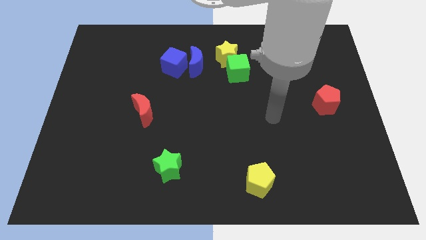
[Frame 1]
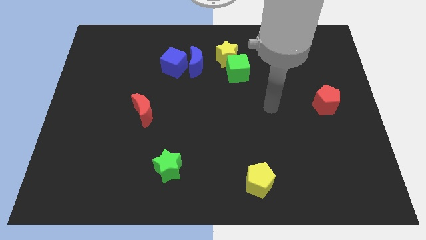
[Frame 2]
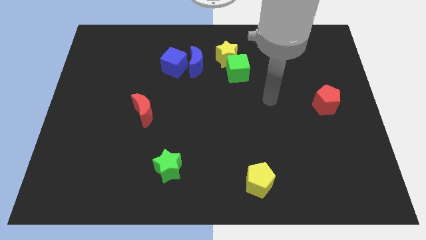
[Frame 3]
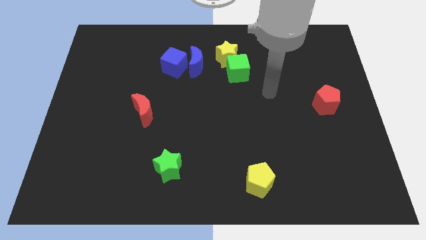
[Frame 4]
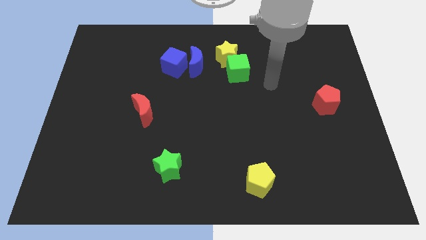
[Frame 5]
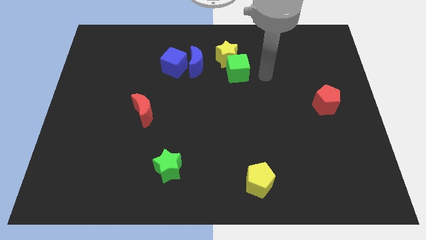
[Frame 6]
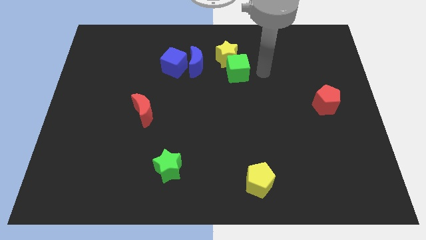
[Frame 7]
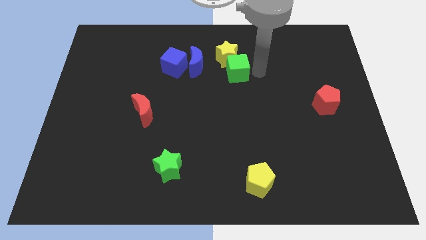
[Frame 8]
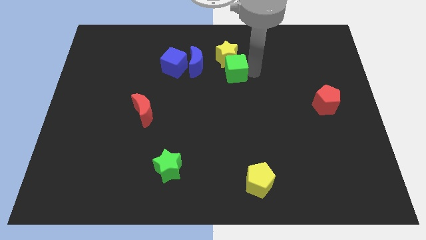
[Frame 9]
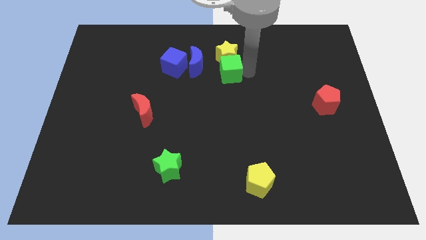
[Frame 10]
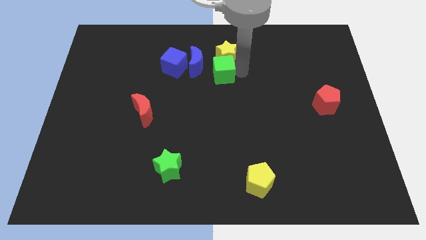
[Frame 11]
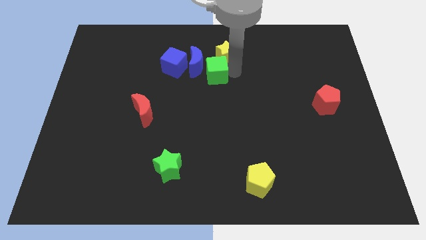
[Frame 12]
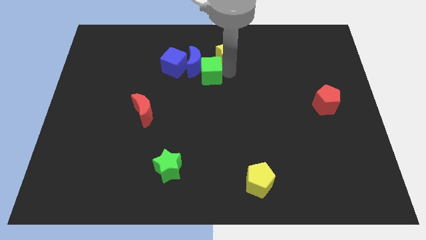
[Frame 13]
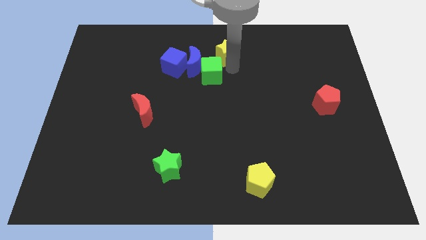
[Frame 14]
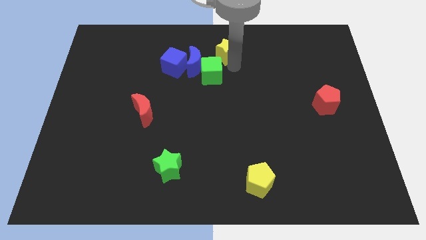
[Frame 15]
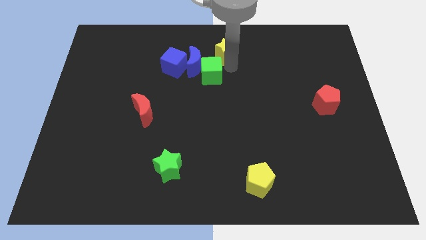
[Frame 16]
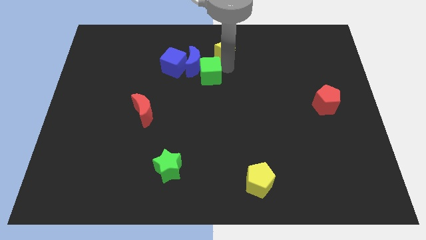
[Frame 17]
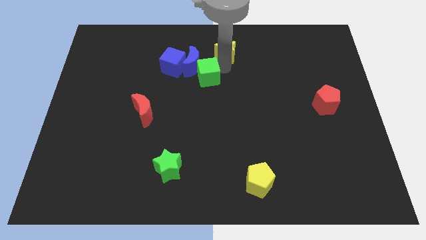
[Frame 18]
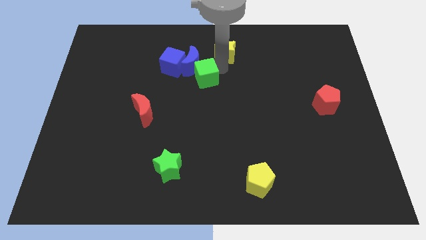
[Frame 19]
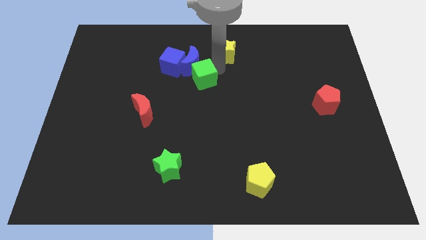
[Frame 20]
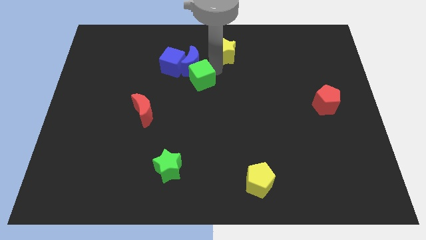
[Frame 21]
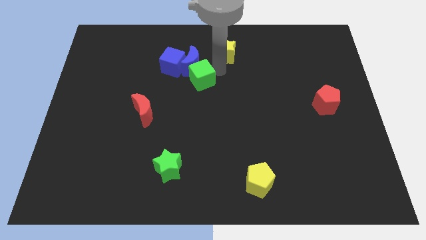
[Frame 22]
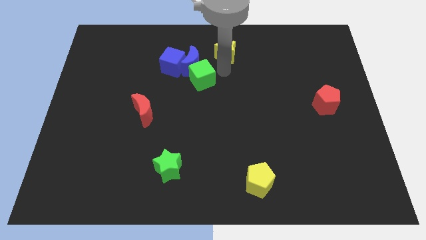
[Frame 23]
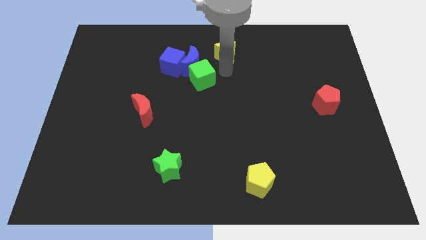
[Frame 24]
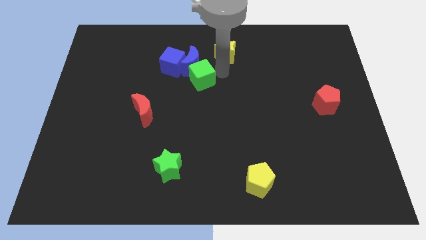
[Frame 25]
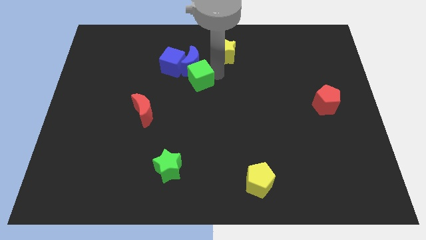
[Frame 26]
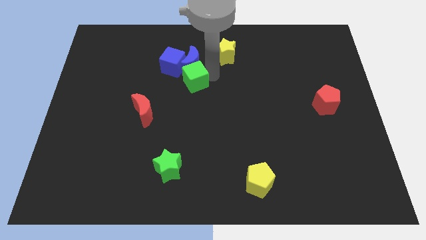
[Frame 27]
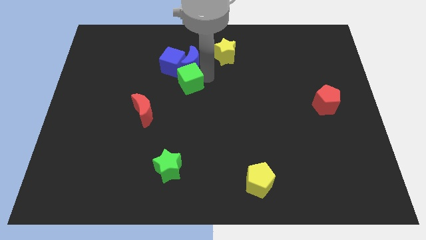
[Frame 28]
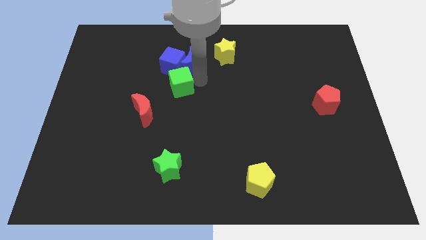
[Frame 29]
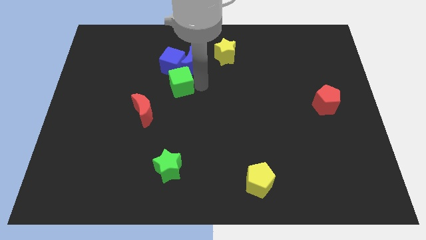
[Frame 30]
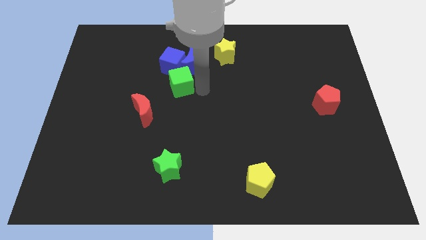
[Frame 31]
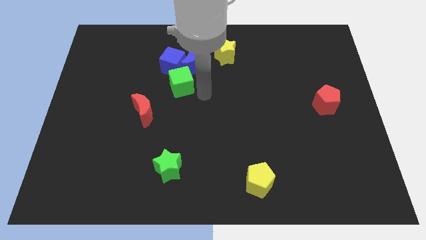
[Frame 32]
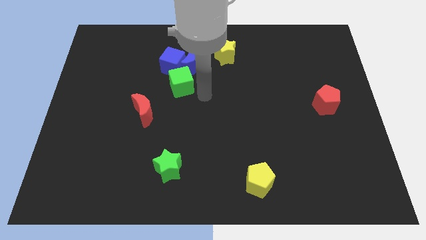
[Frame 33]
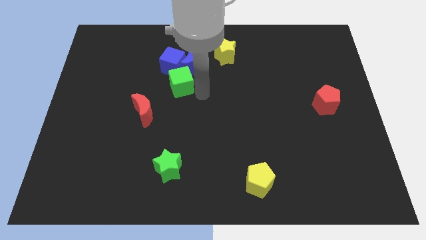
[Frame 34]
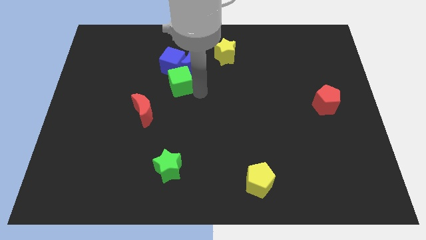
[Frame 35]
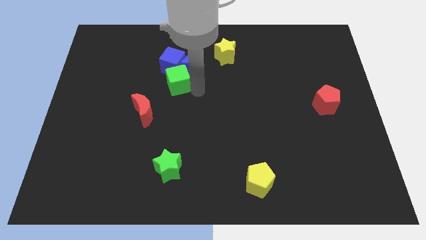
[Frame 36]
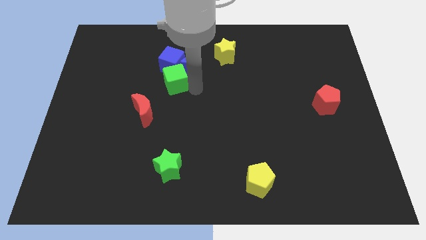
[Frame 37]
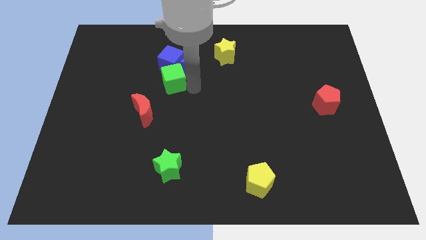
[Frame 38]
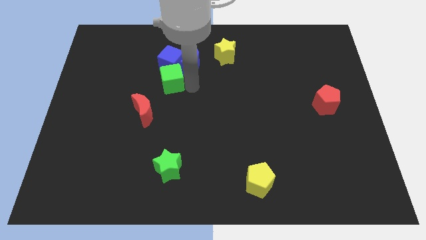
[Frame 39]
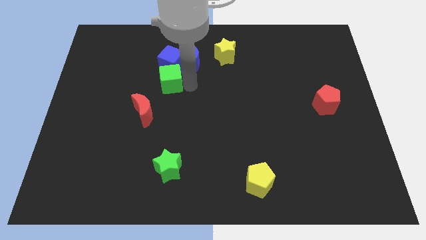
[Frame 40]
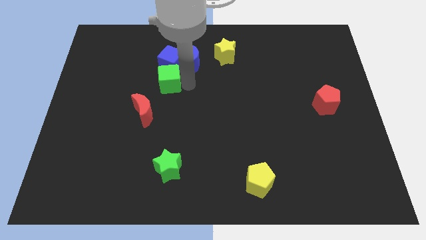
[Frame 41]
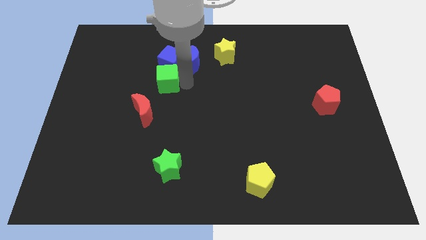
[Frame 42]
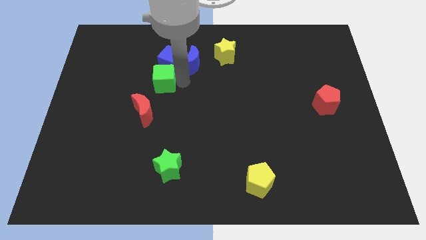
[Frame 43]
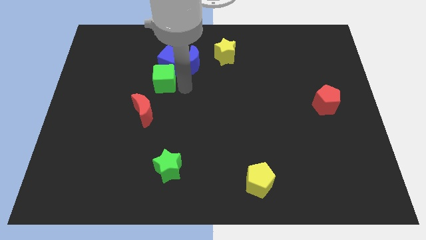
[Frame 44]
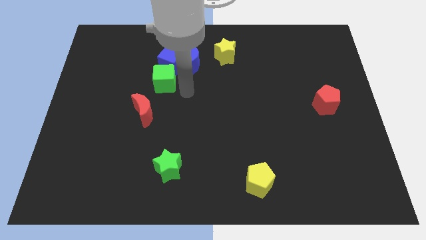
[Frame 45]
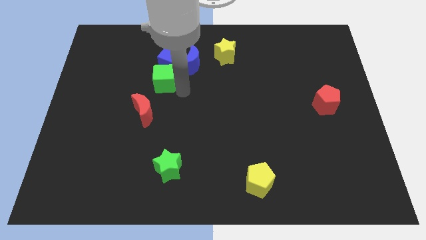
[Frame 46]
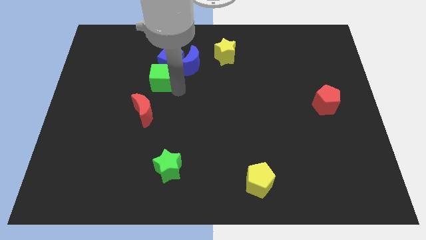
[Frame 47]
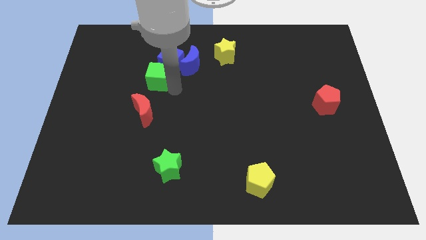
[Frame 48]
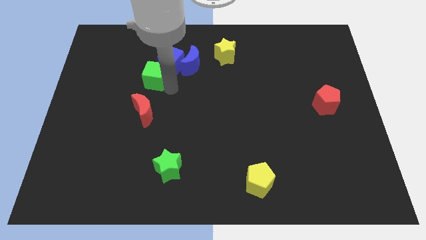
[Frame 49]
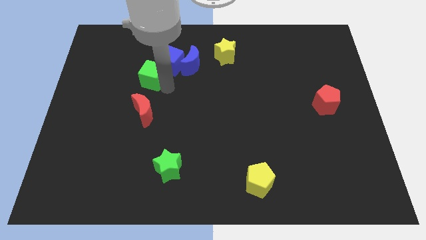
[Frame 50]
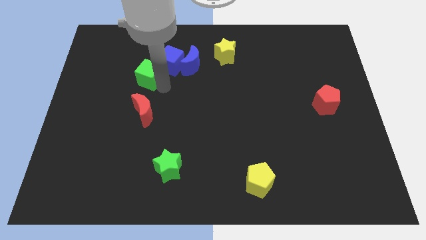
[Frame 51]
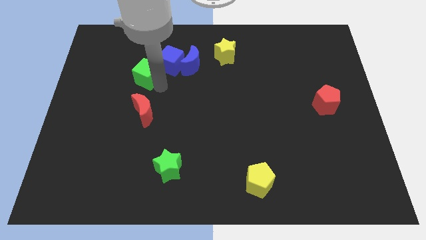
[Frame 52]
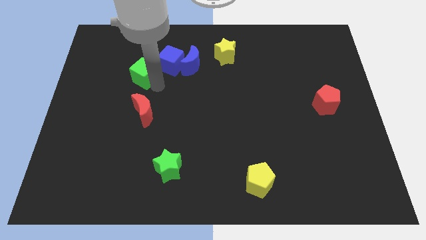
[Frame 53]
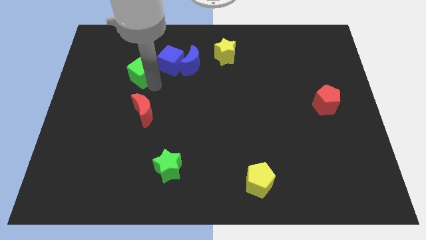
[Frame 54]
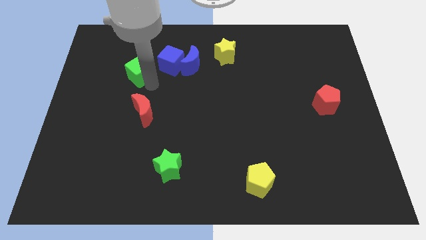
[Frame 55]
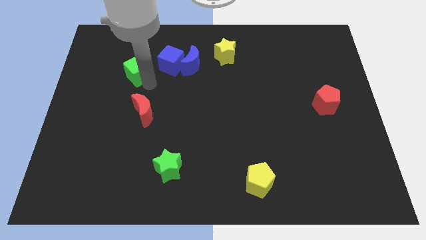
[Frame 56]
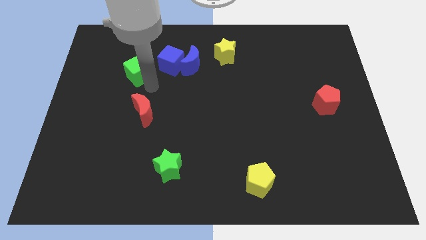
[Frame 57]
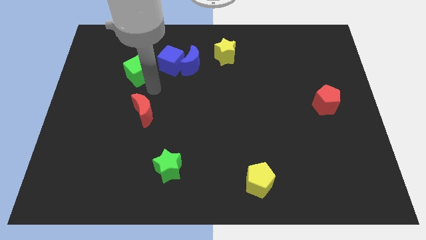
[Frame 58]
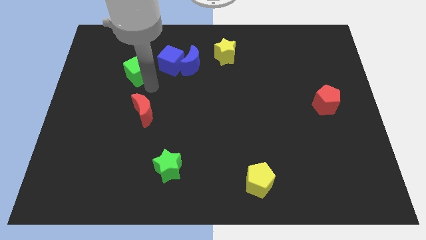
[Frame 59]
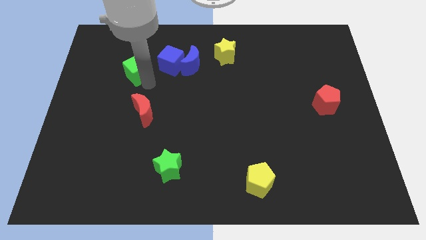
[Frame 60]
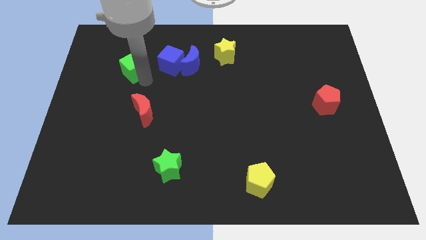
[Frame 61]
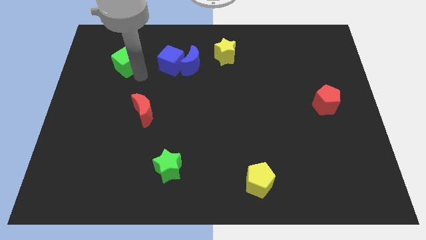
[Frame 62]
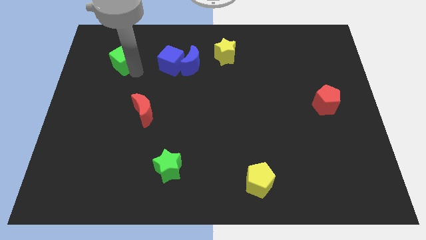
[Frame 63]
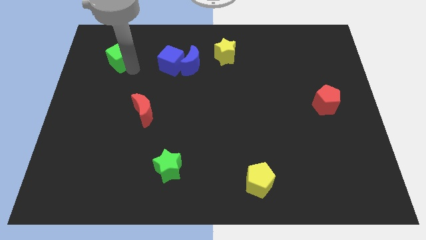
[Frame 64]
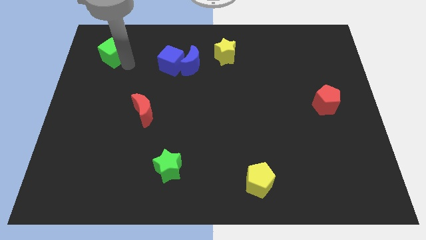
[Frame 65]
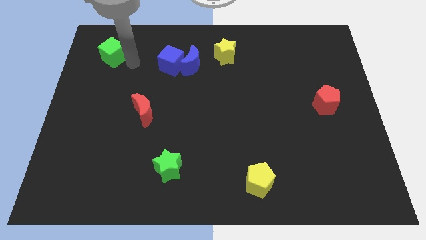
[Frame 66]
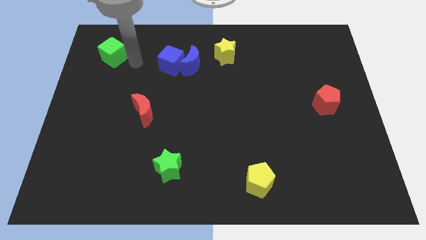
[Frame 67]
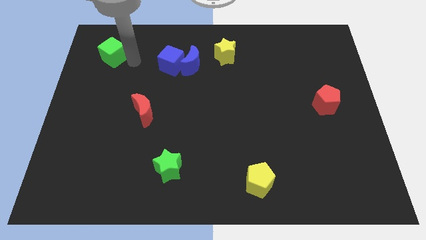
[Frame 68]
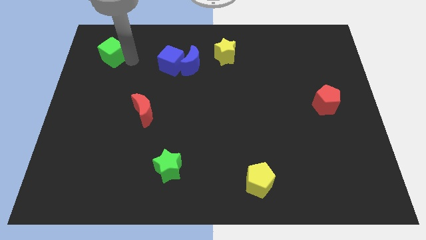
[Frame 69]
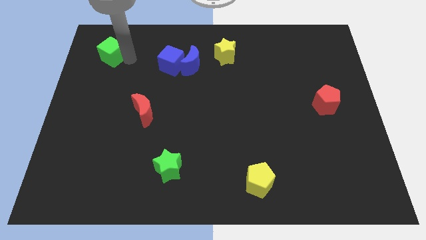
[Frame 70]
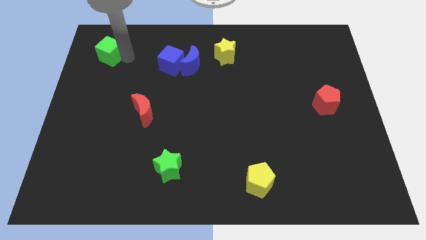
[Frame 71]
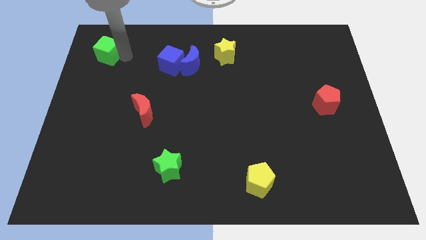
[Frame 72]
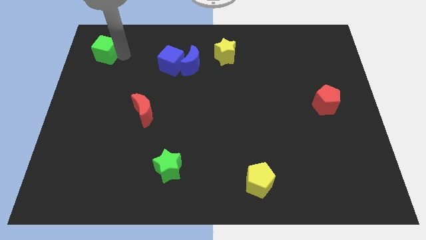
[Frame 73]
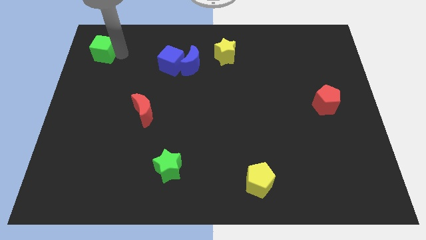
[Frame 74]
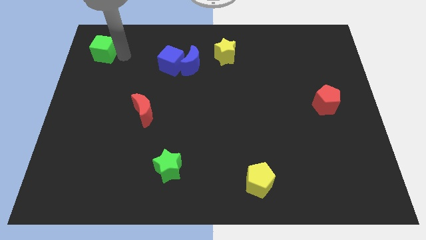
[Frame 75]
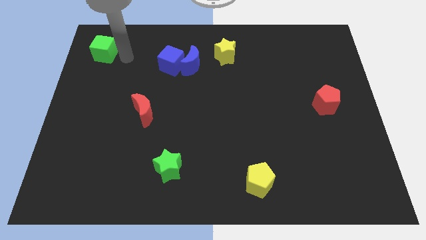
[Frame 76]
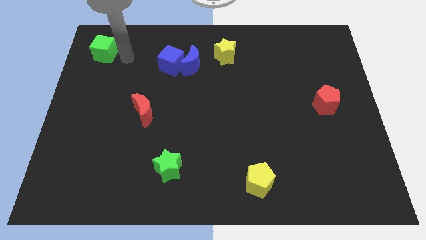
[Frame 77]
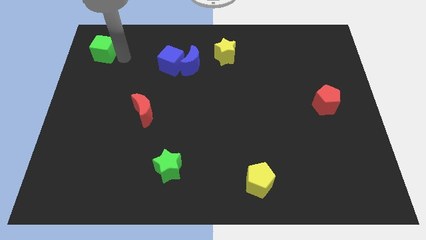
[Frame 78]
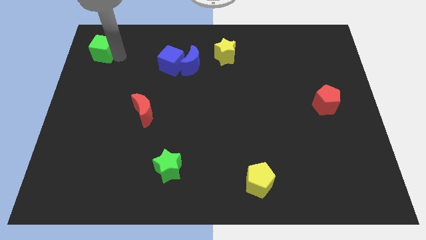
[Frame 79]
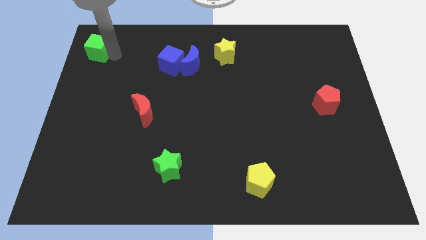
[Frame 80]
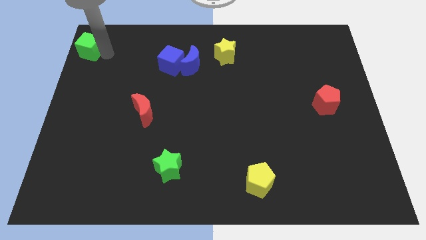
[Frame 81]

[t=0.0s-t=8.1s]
move the green cube to the top left
